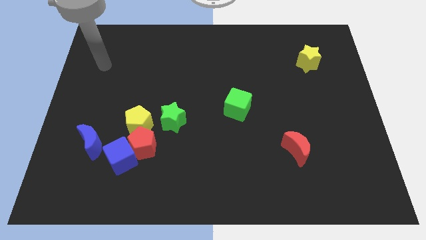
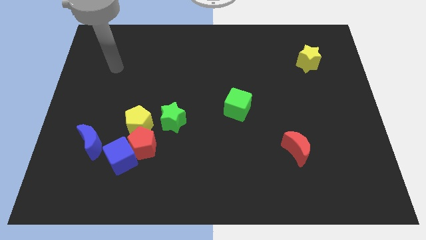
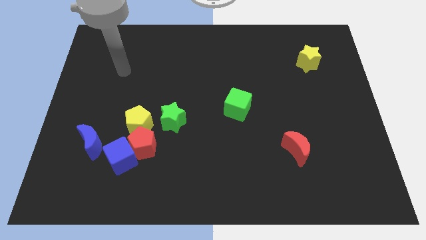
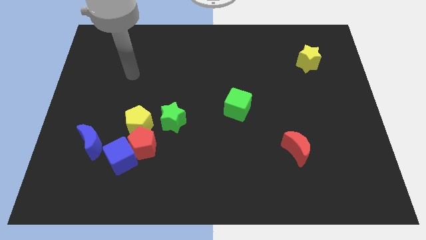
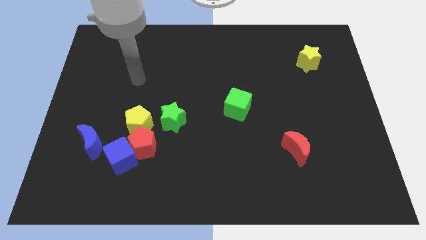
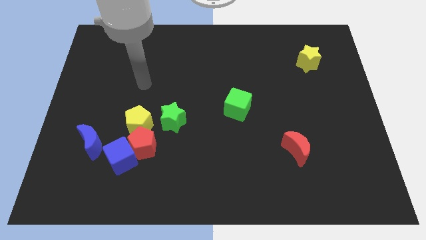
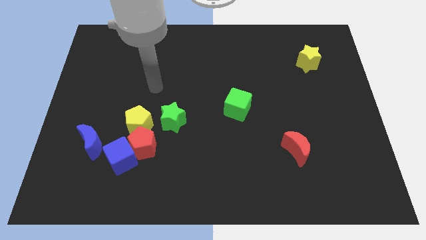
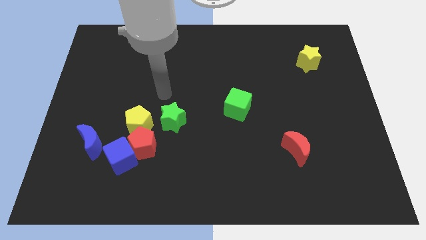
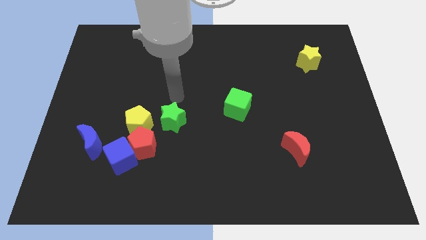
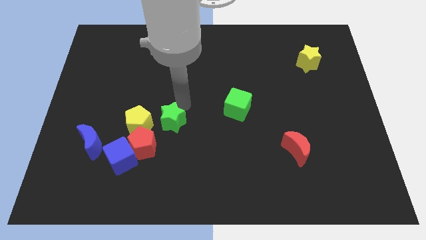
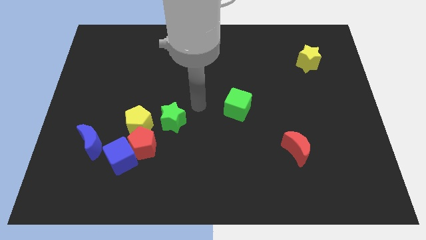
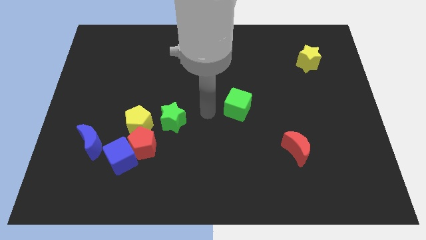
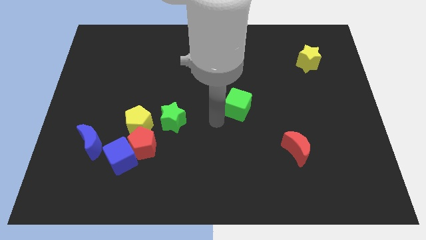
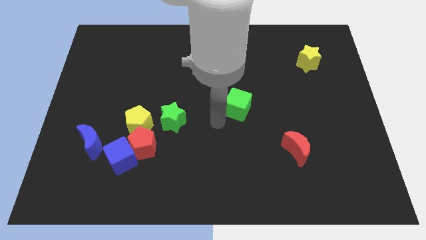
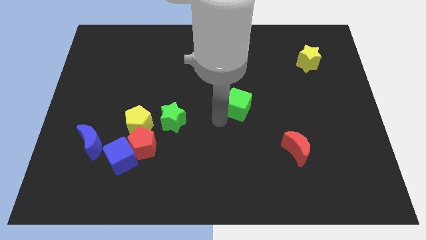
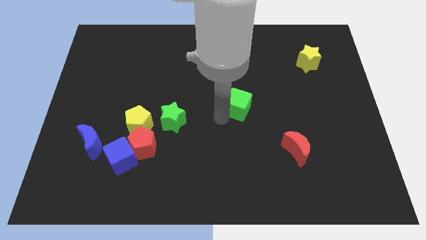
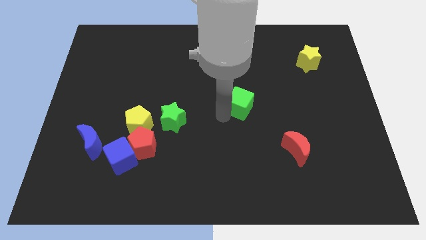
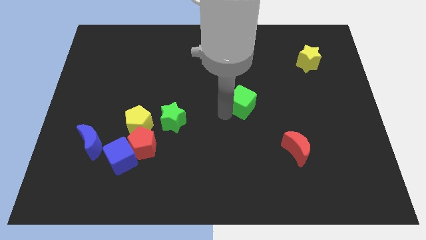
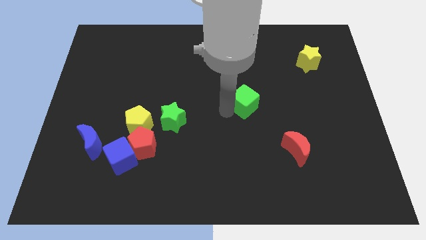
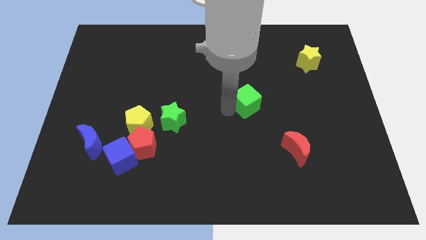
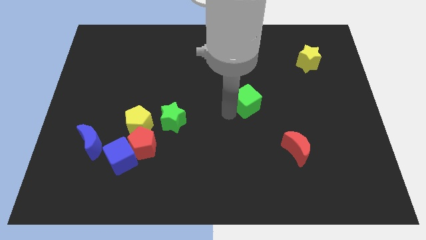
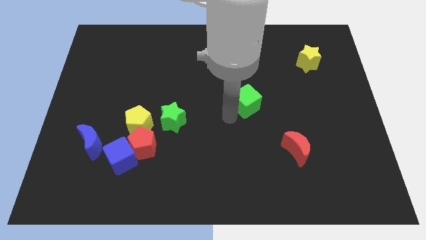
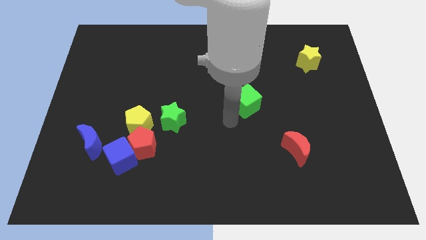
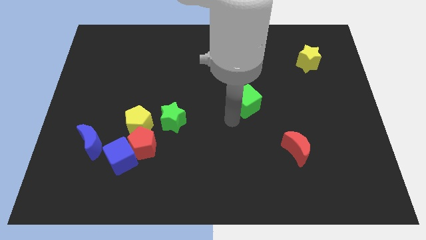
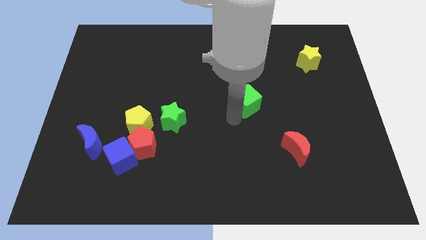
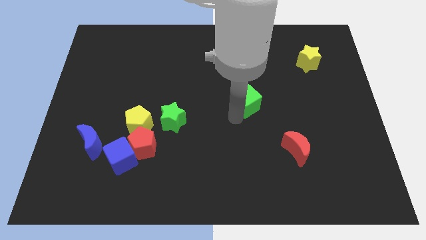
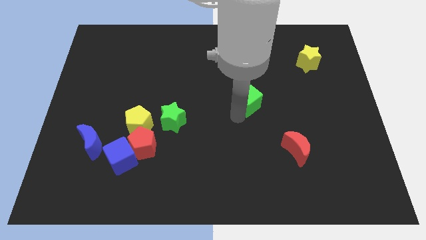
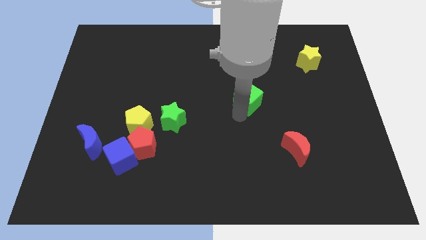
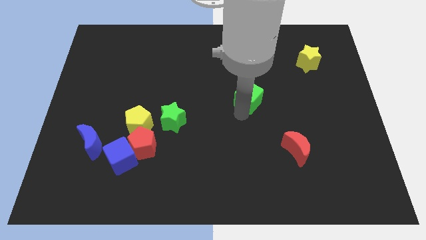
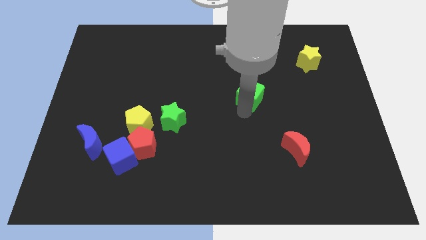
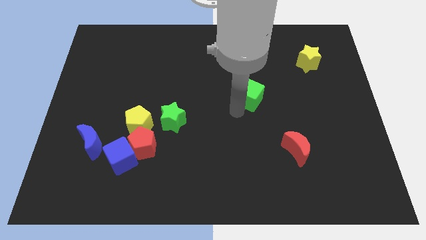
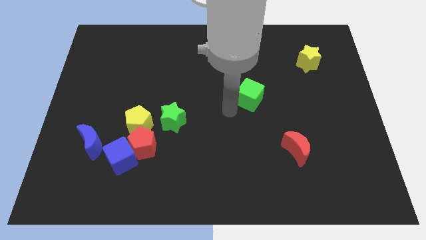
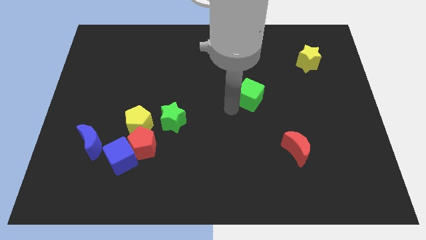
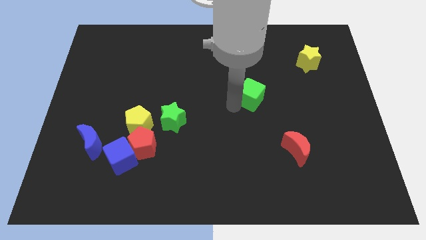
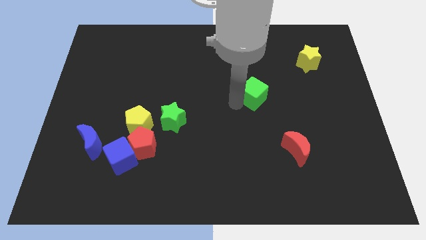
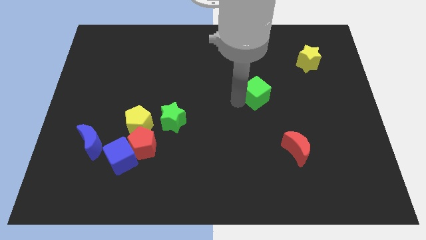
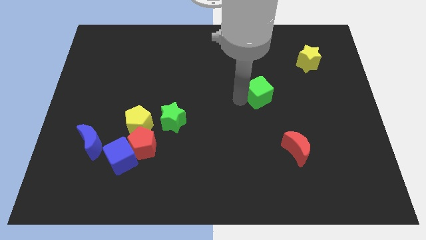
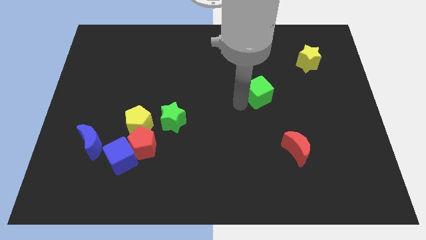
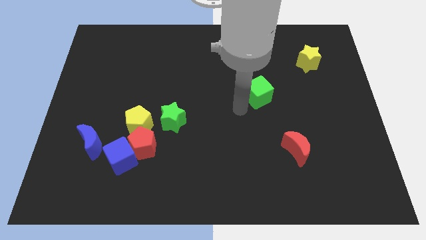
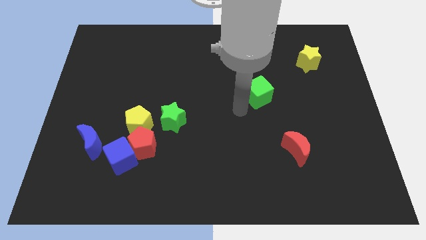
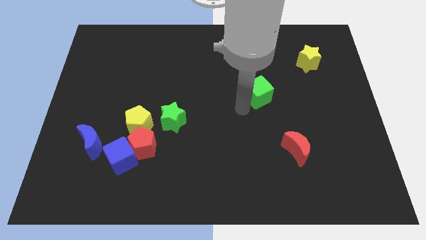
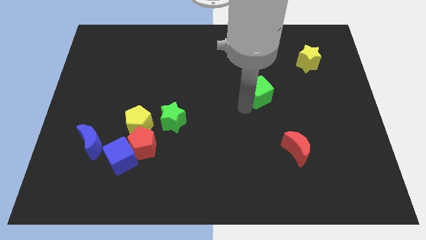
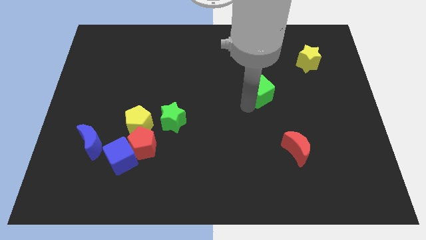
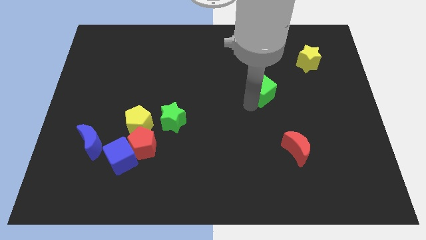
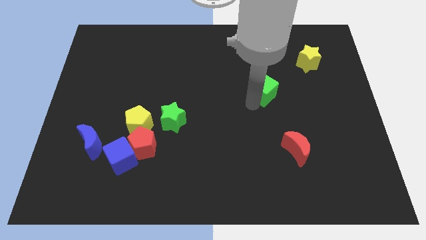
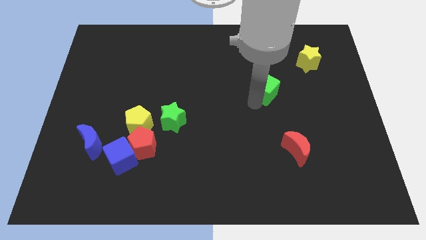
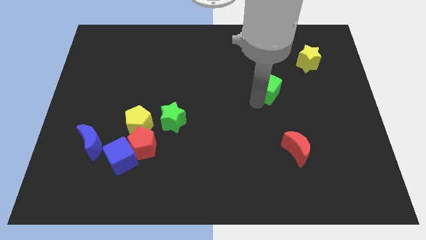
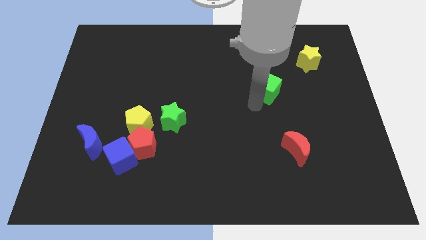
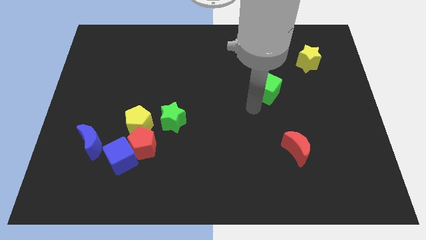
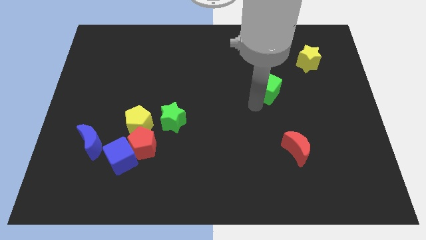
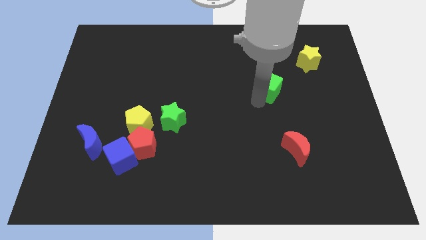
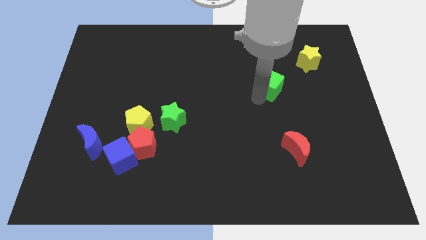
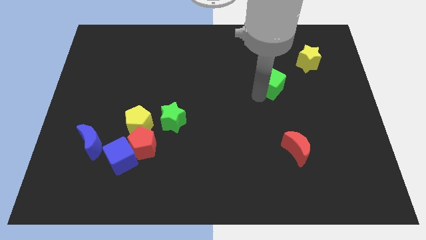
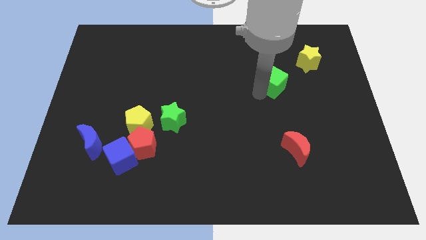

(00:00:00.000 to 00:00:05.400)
move the green cube to the bottom left side of the yellow star

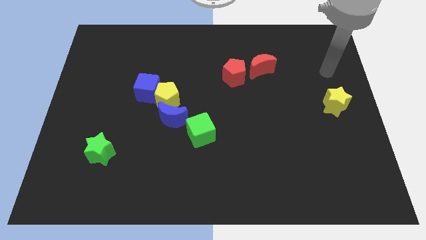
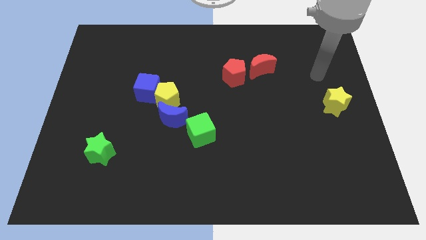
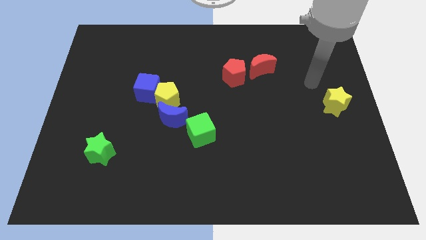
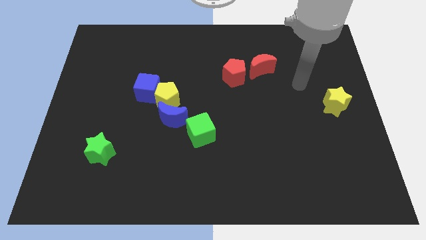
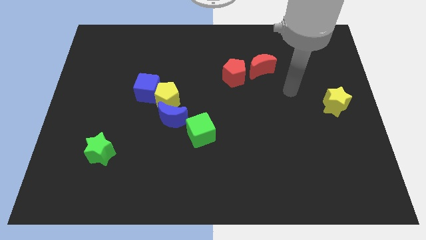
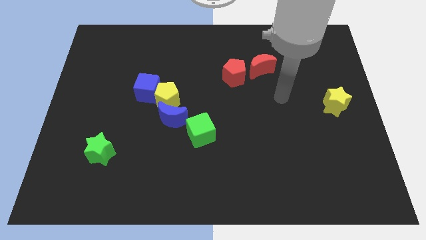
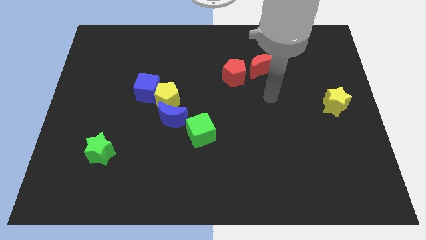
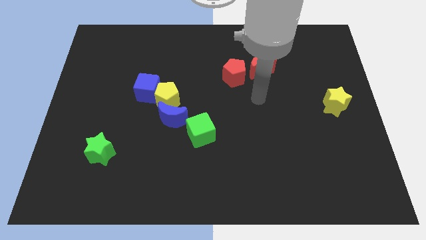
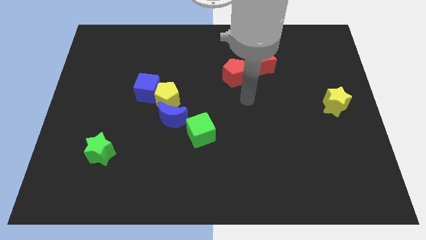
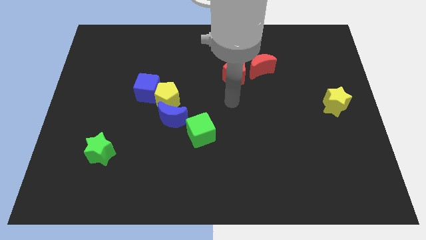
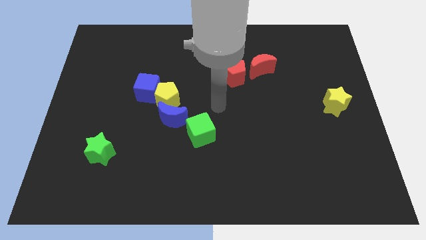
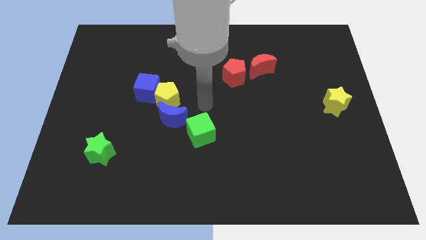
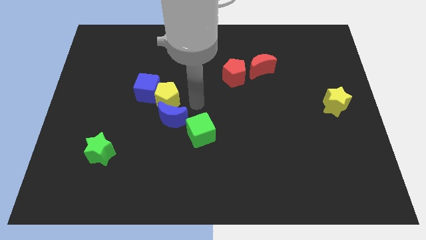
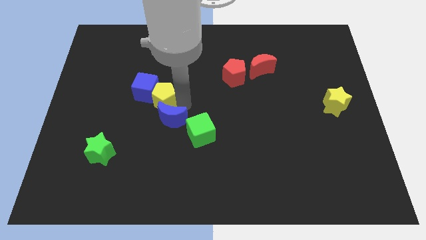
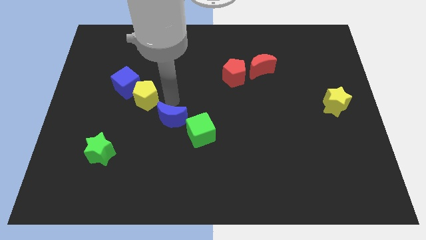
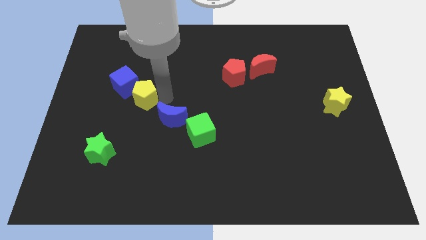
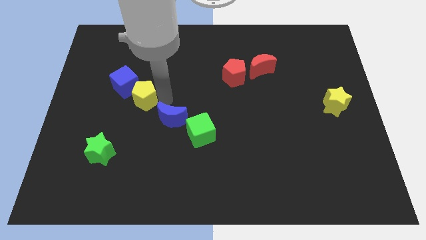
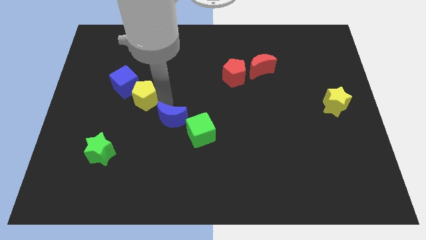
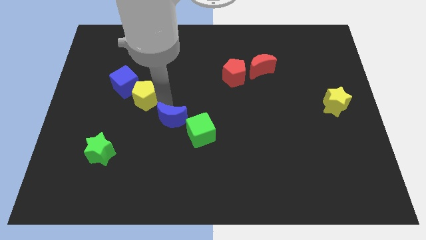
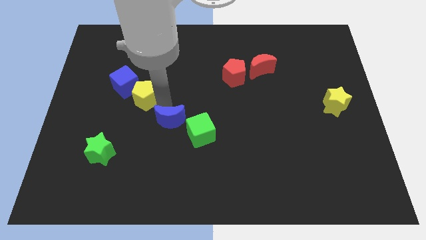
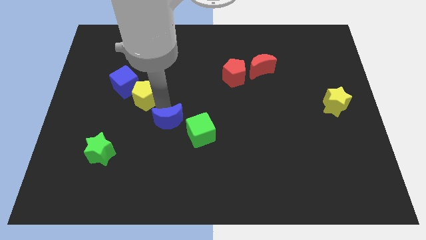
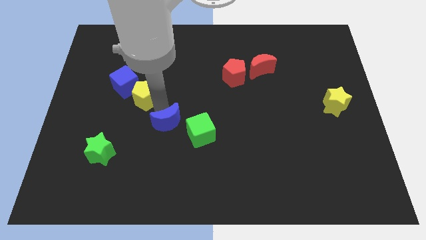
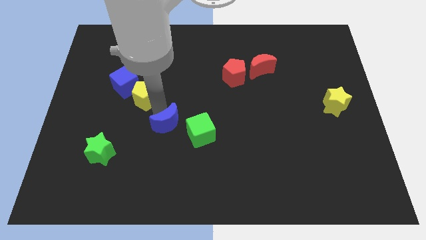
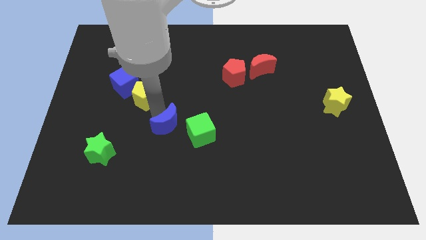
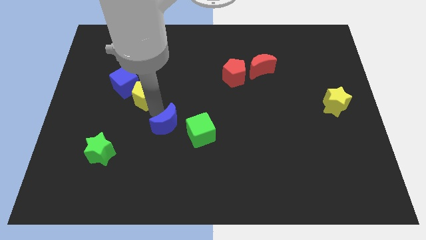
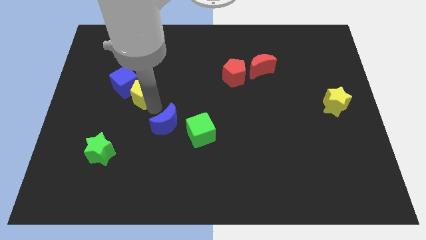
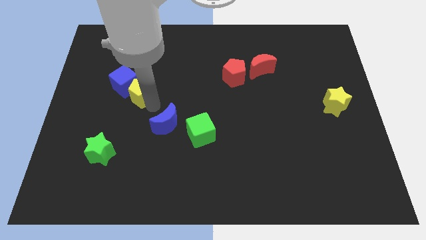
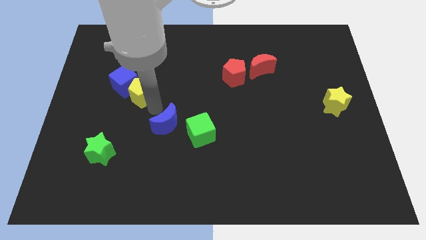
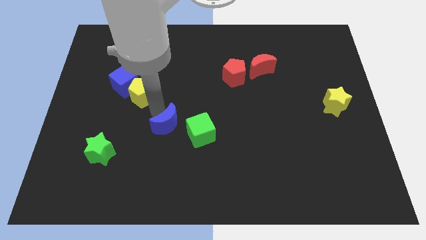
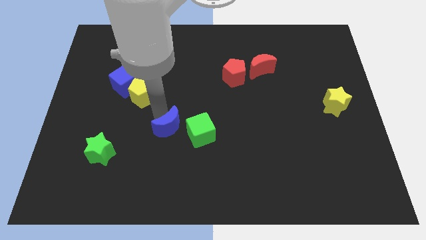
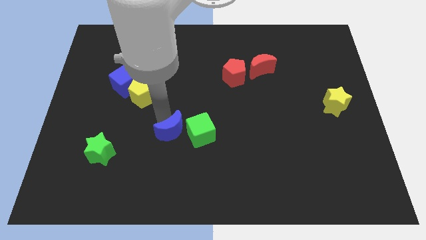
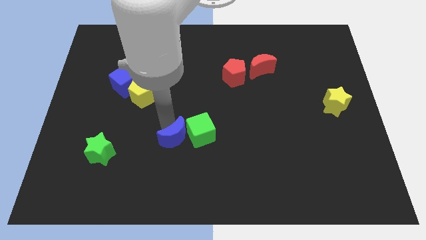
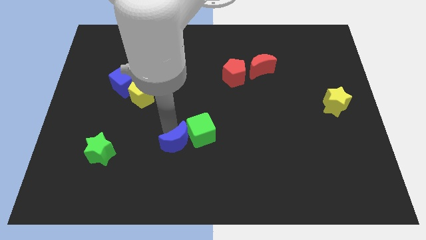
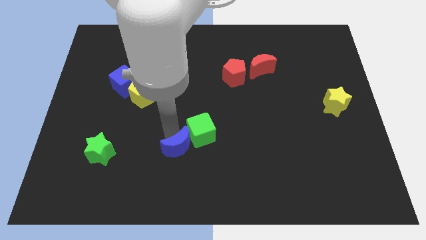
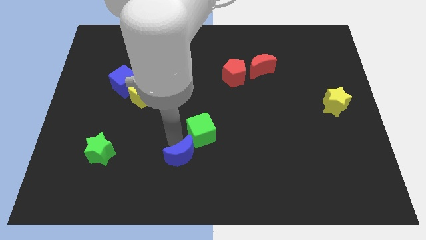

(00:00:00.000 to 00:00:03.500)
push the blue moon to the bottom side of the green cube

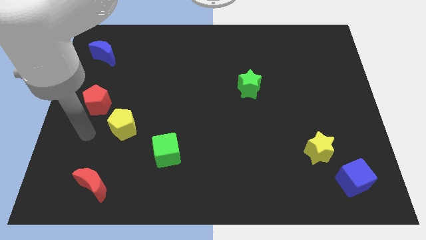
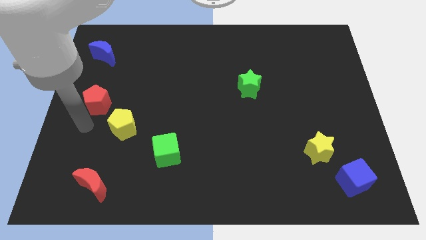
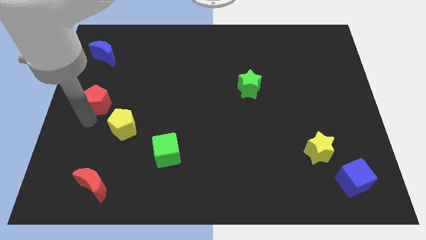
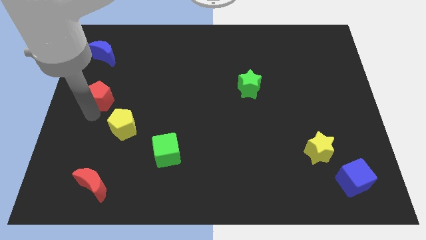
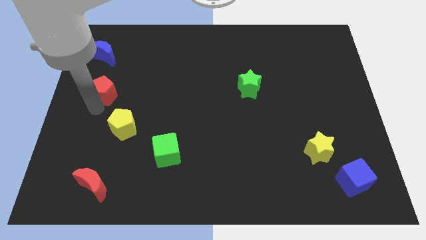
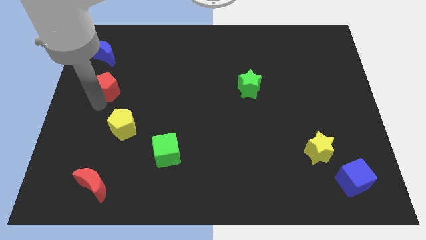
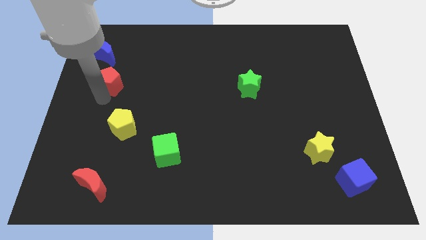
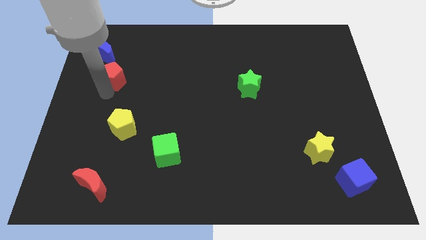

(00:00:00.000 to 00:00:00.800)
slide the red pentagon to the bottom right of the blue moon
